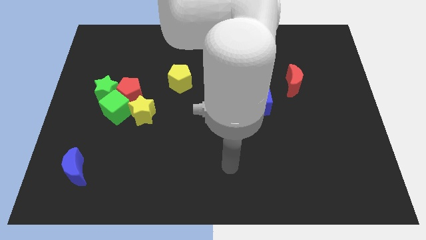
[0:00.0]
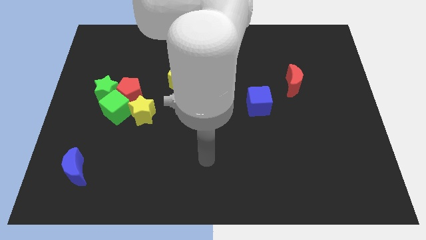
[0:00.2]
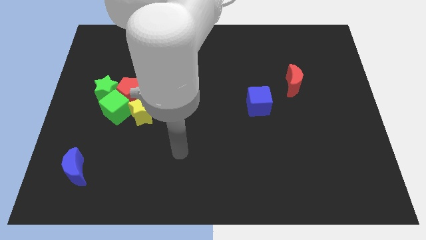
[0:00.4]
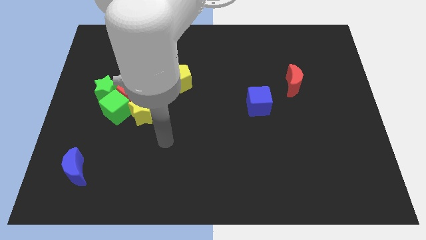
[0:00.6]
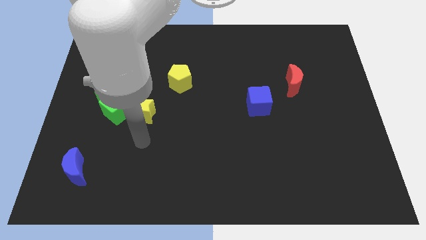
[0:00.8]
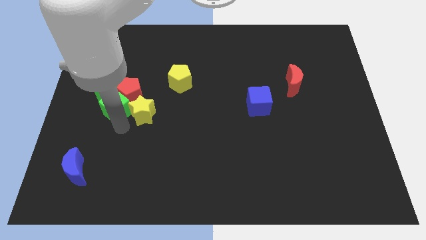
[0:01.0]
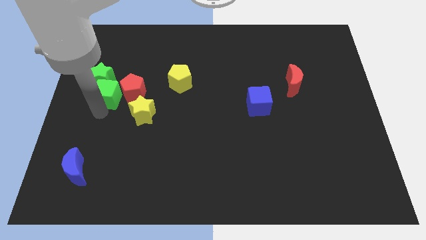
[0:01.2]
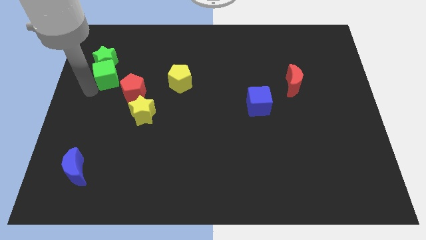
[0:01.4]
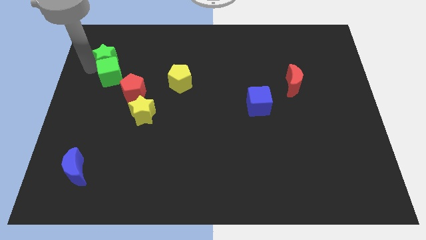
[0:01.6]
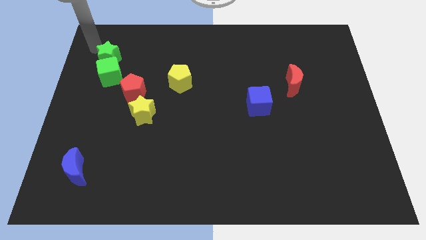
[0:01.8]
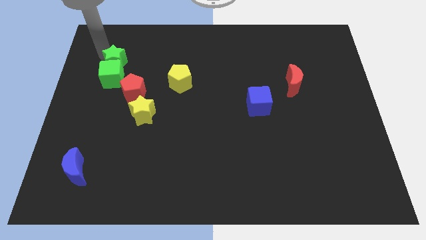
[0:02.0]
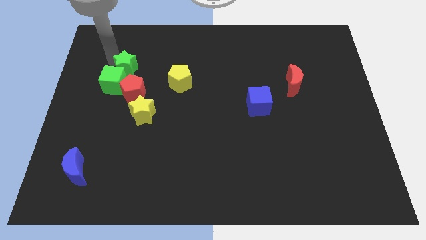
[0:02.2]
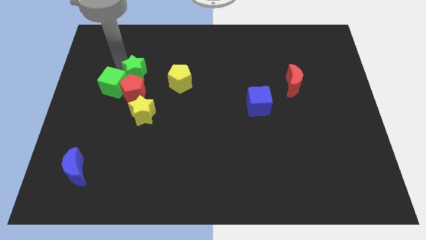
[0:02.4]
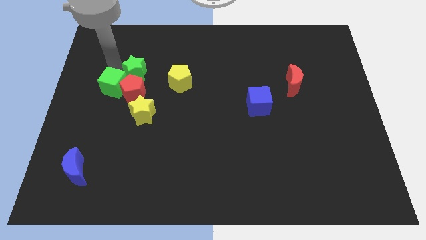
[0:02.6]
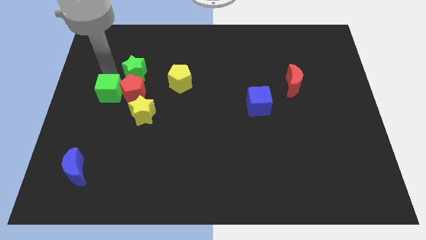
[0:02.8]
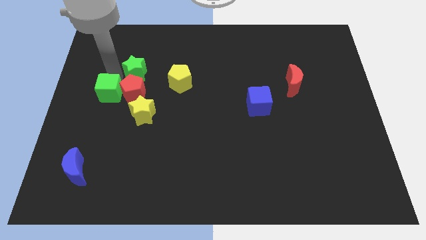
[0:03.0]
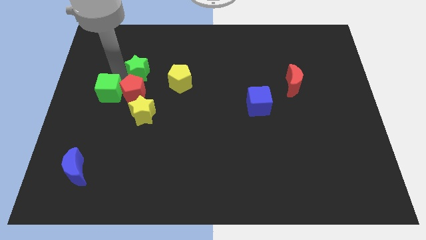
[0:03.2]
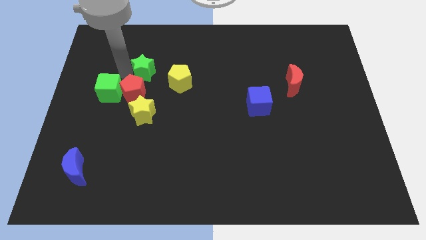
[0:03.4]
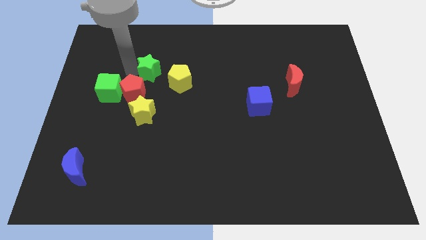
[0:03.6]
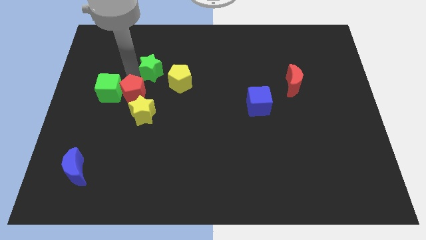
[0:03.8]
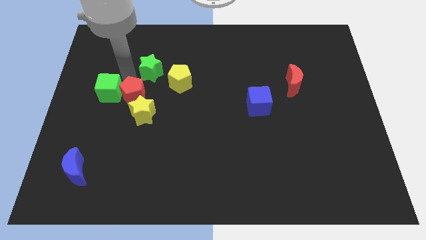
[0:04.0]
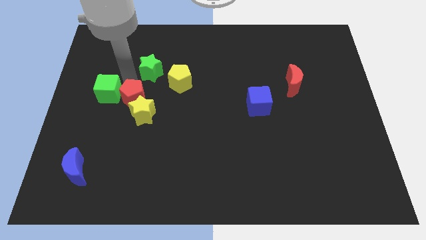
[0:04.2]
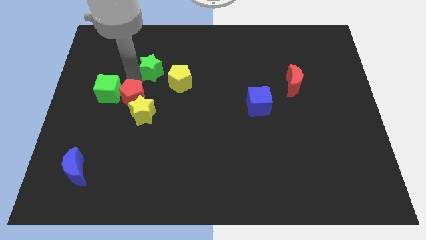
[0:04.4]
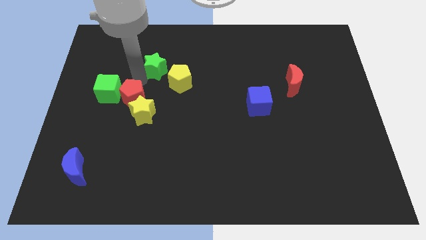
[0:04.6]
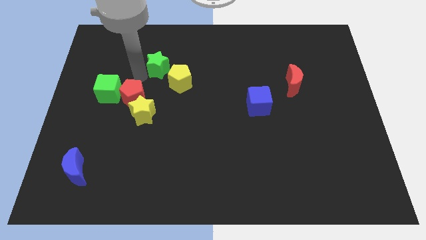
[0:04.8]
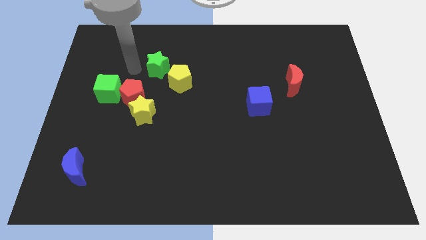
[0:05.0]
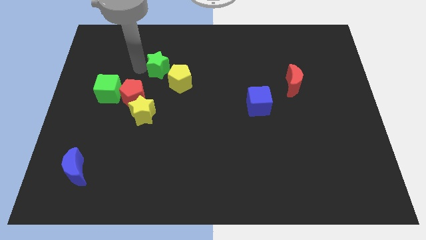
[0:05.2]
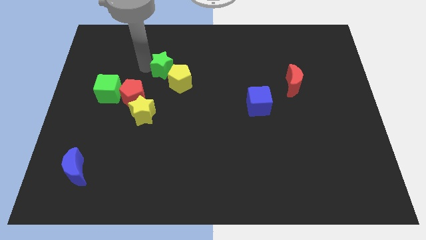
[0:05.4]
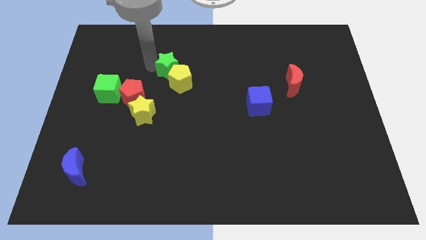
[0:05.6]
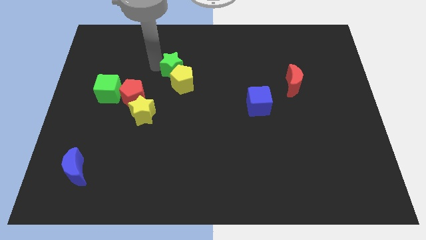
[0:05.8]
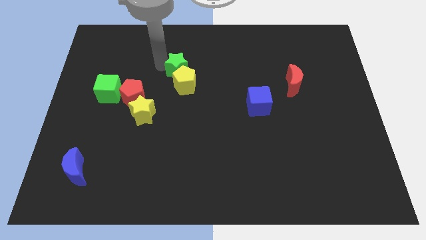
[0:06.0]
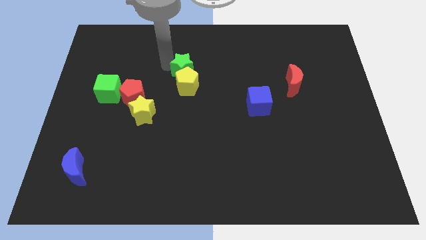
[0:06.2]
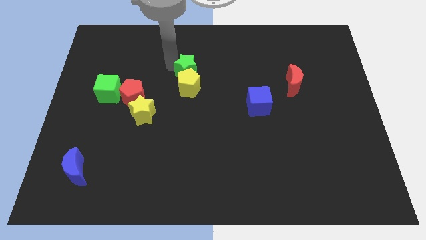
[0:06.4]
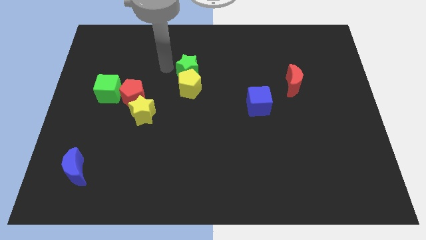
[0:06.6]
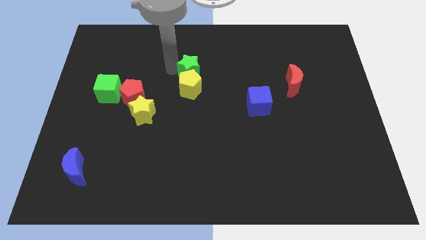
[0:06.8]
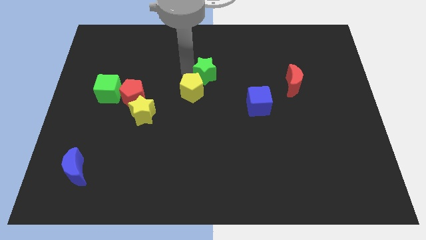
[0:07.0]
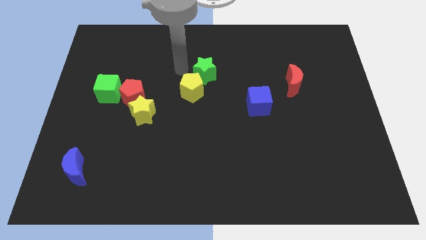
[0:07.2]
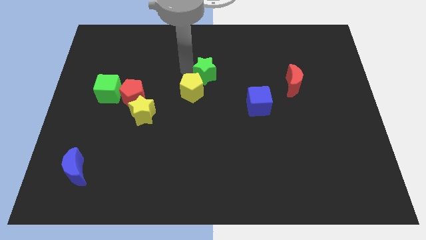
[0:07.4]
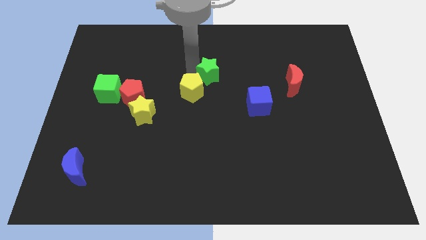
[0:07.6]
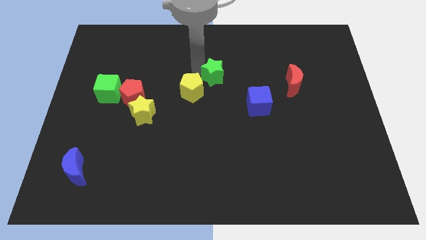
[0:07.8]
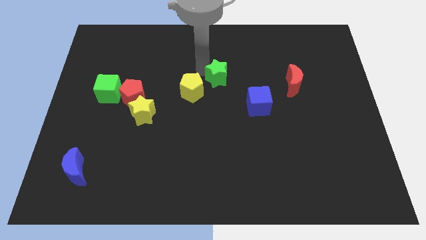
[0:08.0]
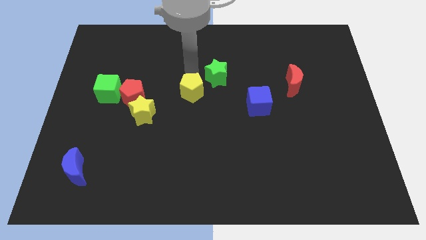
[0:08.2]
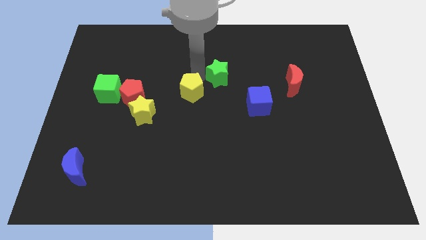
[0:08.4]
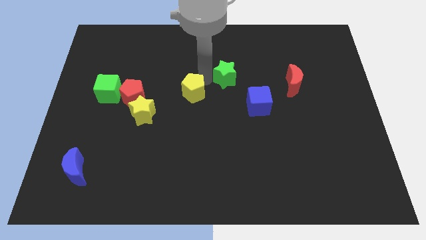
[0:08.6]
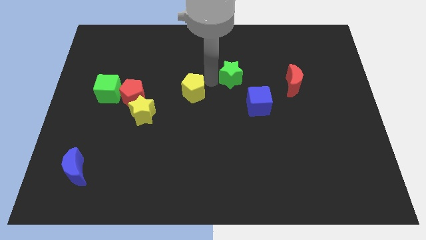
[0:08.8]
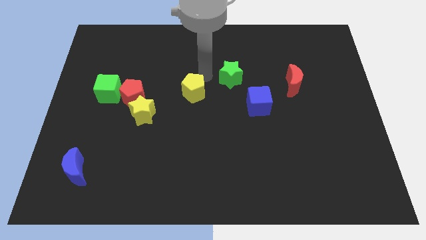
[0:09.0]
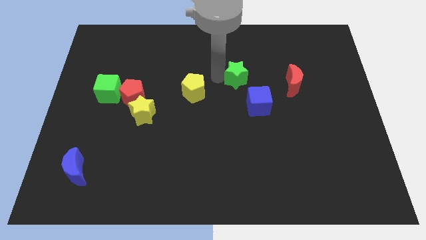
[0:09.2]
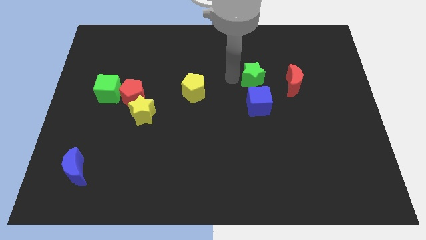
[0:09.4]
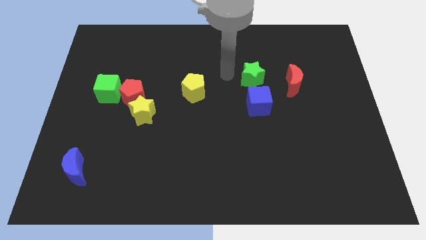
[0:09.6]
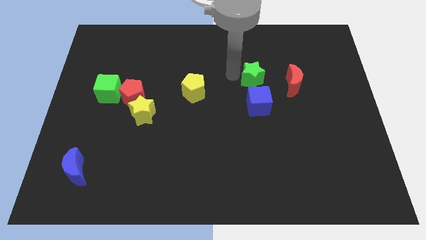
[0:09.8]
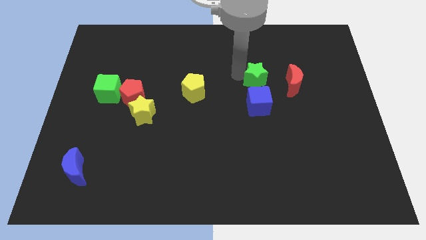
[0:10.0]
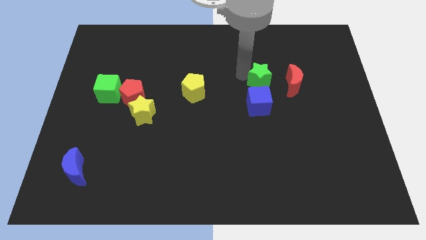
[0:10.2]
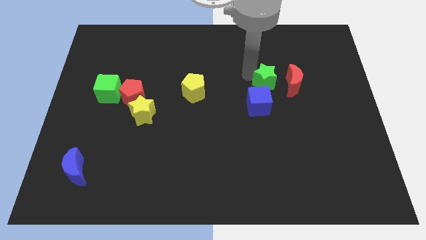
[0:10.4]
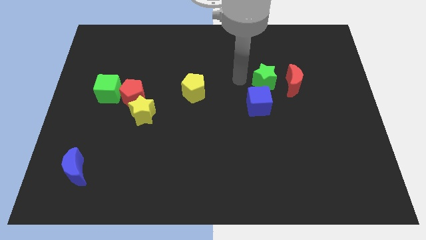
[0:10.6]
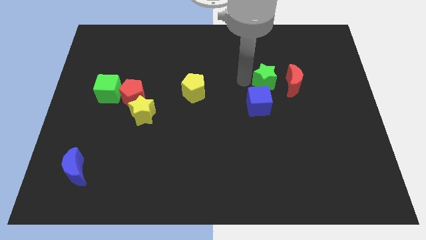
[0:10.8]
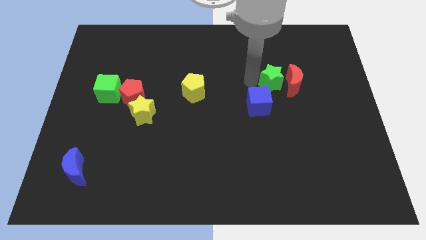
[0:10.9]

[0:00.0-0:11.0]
put the green star next to the red moon

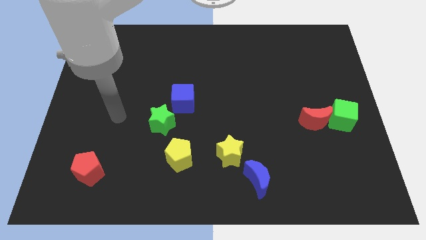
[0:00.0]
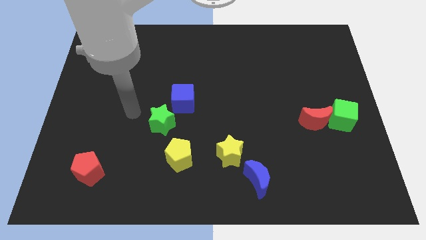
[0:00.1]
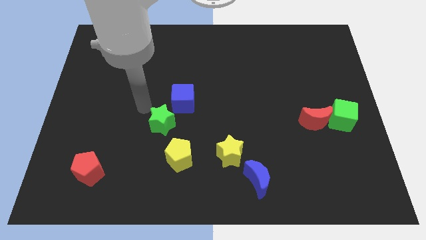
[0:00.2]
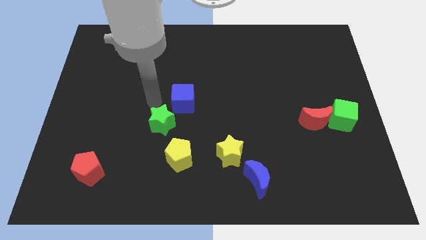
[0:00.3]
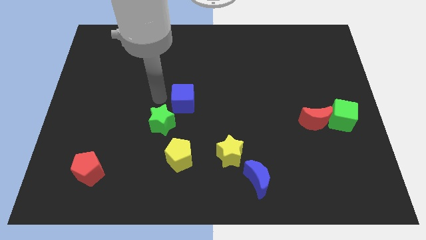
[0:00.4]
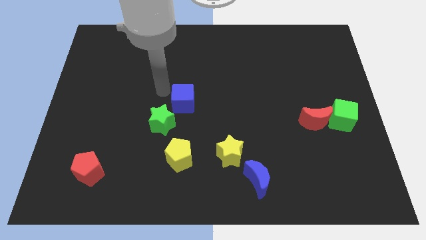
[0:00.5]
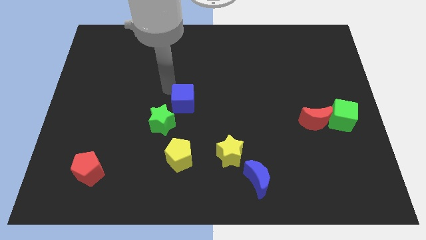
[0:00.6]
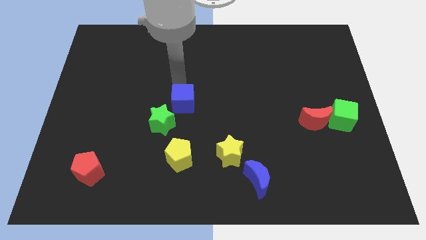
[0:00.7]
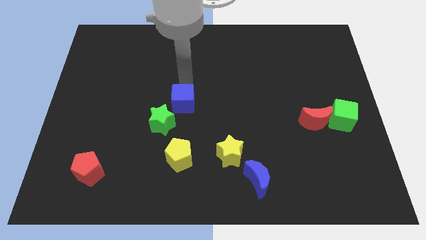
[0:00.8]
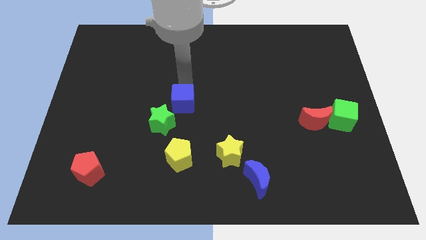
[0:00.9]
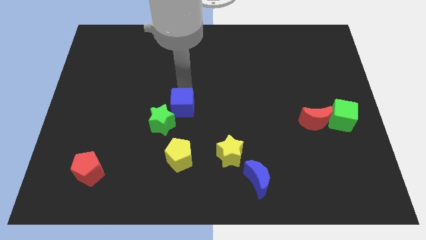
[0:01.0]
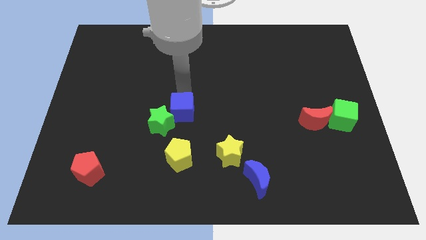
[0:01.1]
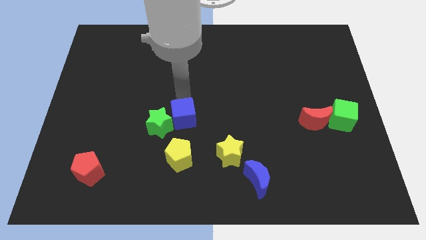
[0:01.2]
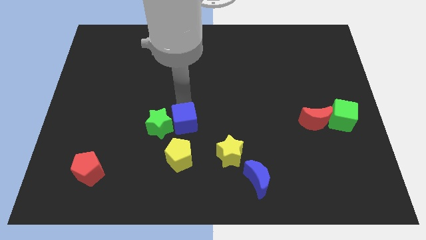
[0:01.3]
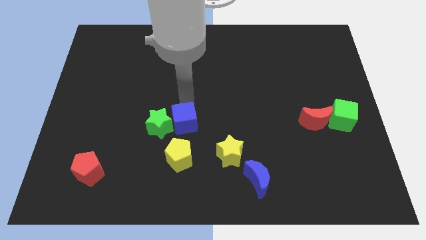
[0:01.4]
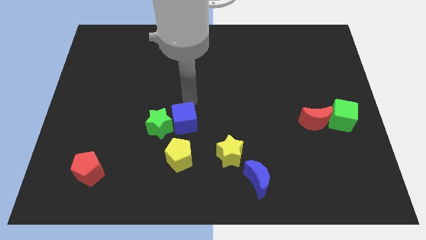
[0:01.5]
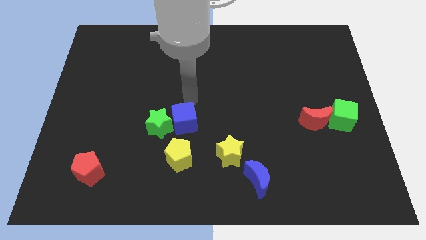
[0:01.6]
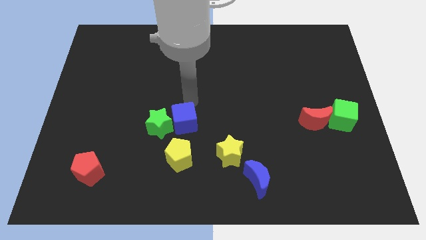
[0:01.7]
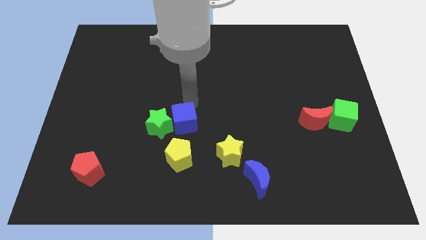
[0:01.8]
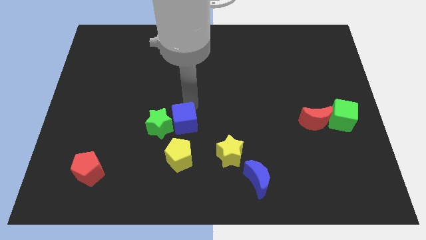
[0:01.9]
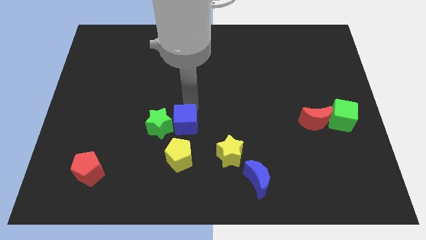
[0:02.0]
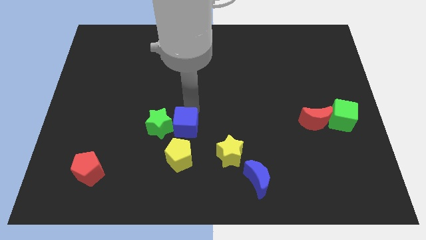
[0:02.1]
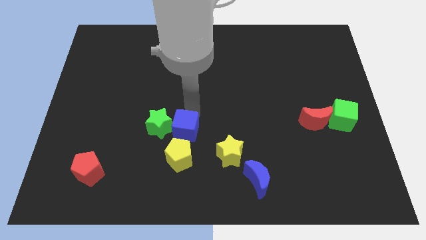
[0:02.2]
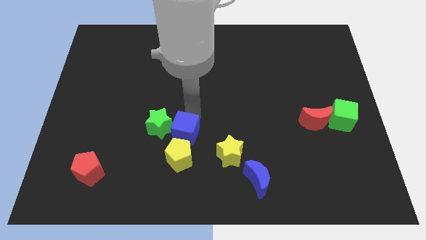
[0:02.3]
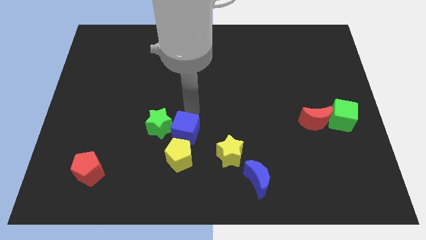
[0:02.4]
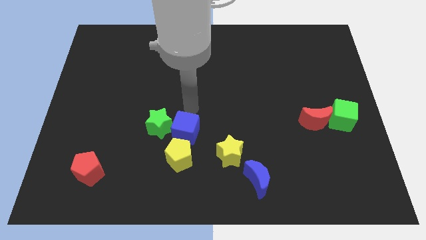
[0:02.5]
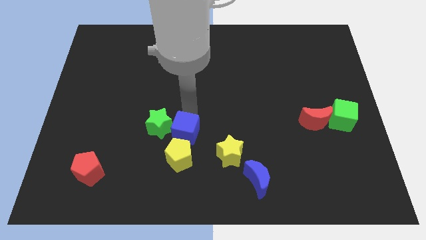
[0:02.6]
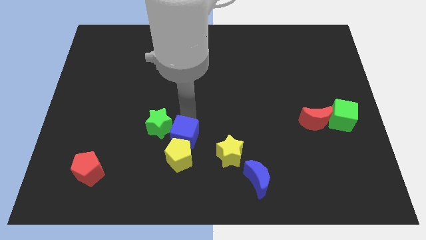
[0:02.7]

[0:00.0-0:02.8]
move the blue cube next to the yellow pentagon
